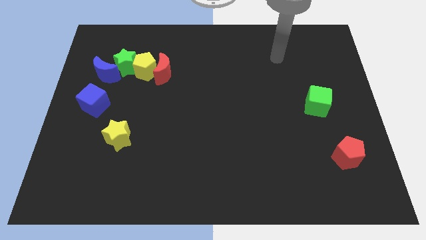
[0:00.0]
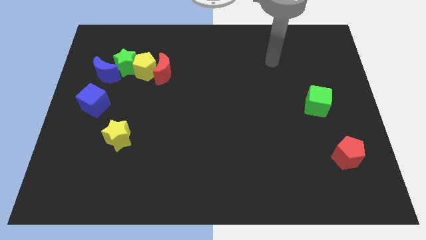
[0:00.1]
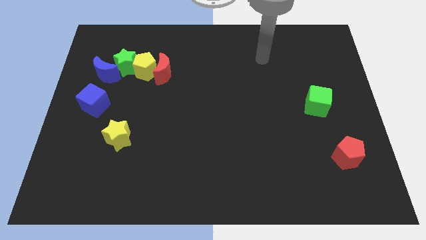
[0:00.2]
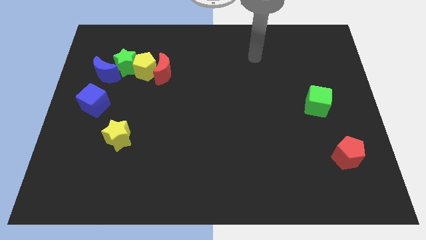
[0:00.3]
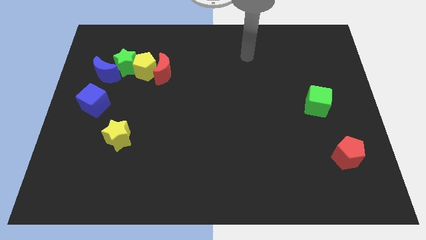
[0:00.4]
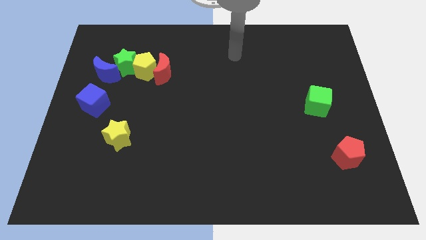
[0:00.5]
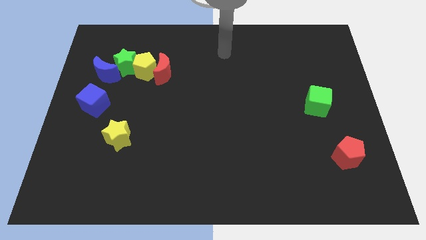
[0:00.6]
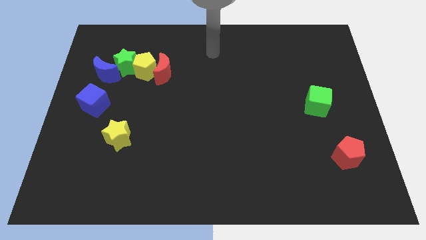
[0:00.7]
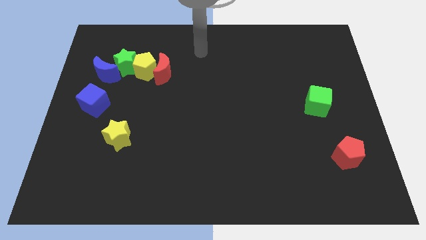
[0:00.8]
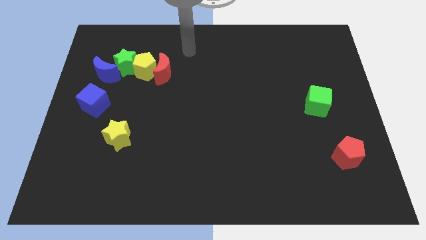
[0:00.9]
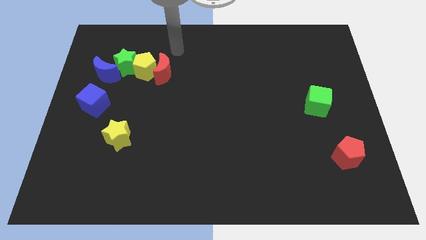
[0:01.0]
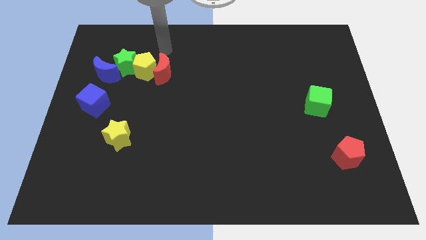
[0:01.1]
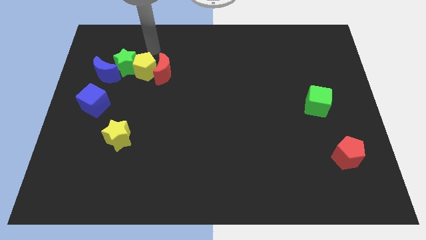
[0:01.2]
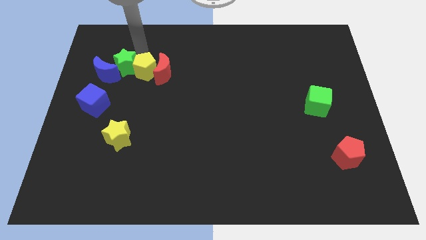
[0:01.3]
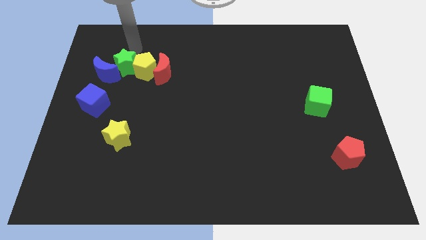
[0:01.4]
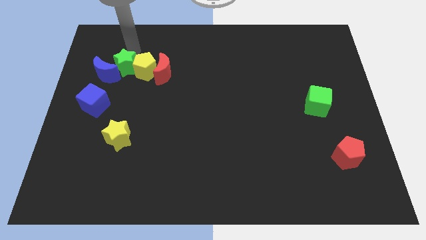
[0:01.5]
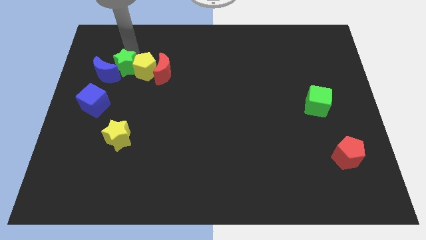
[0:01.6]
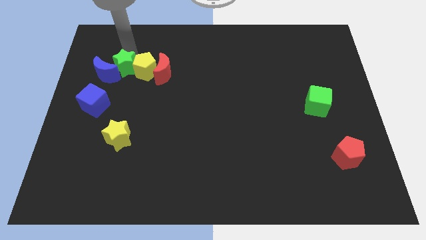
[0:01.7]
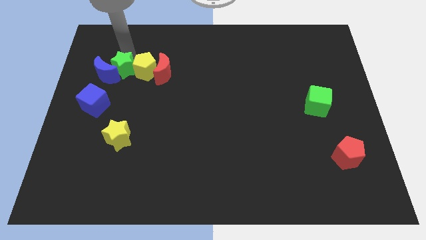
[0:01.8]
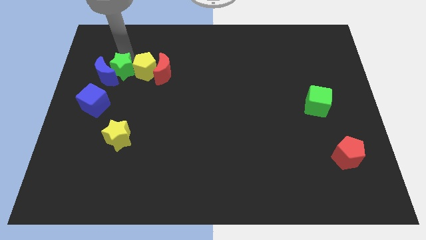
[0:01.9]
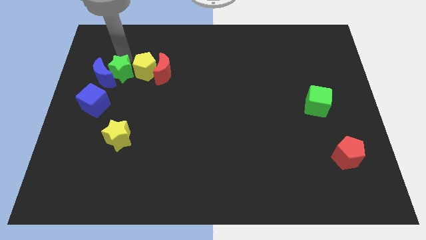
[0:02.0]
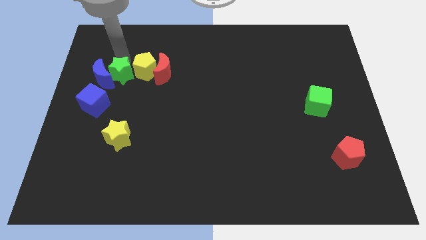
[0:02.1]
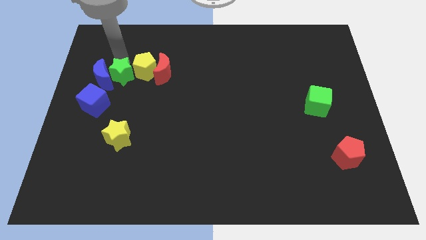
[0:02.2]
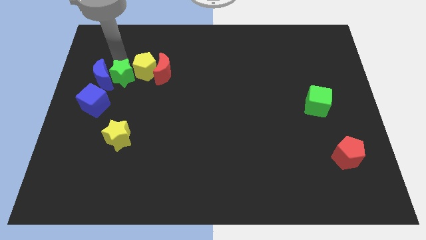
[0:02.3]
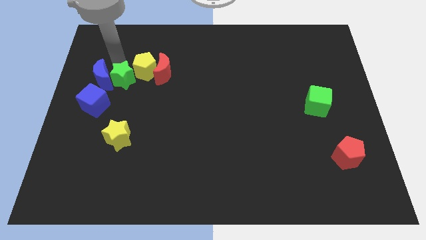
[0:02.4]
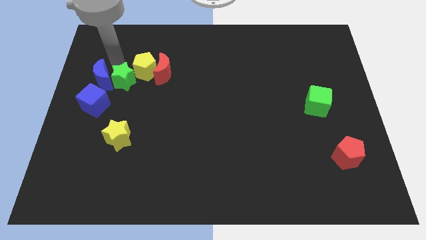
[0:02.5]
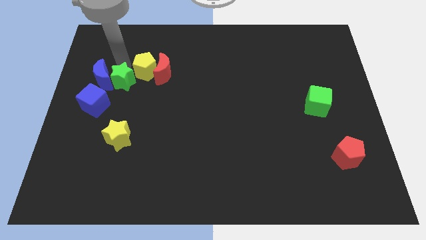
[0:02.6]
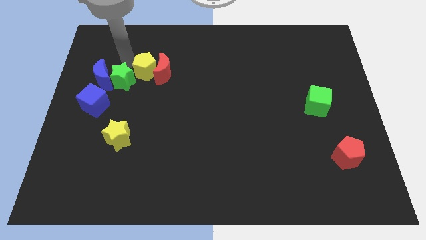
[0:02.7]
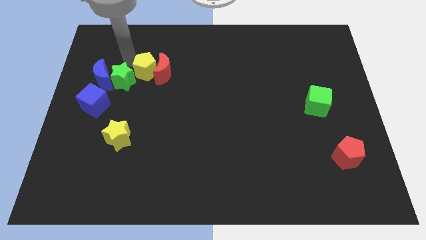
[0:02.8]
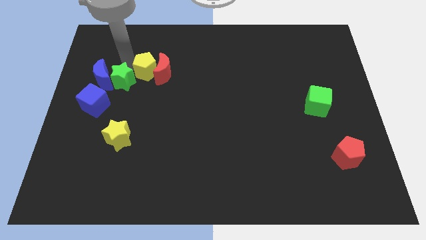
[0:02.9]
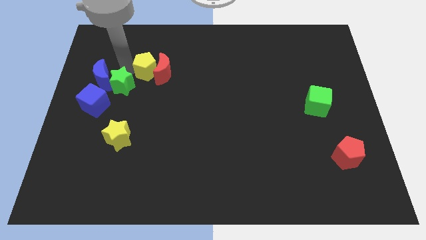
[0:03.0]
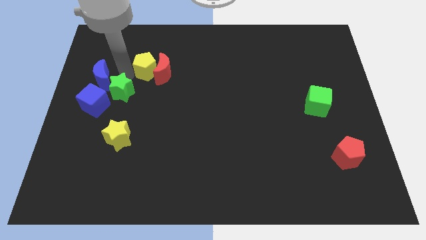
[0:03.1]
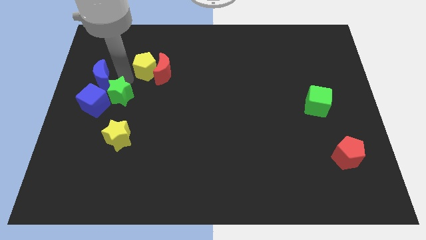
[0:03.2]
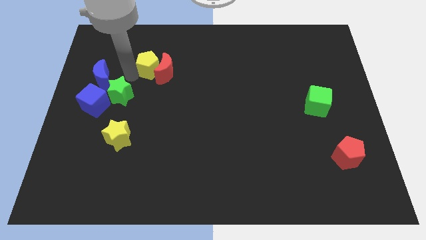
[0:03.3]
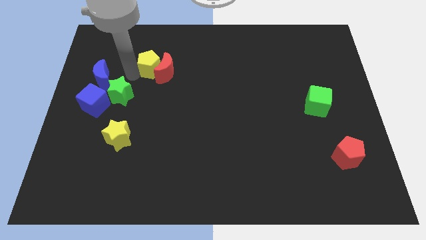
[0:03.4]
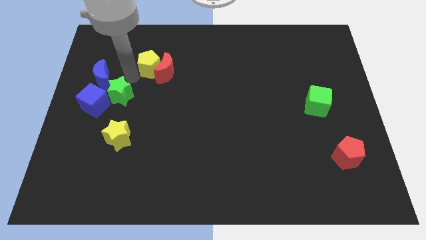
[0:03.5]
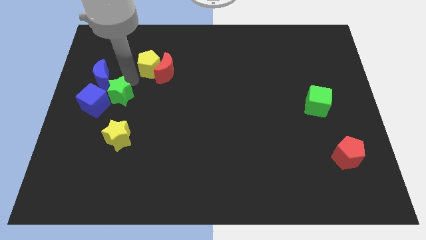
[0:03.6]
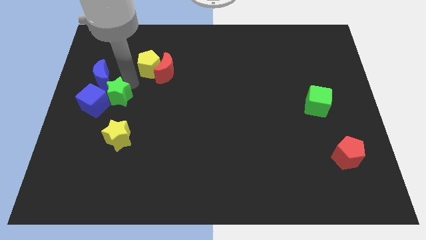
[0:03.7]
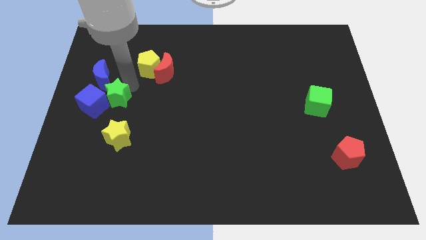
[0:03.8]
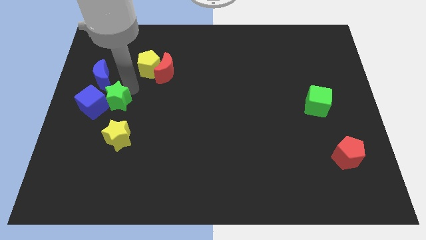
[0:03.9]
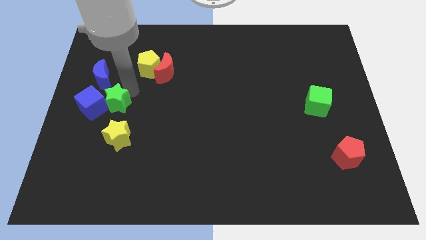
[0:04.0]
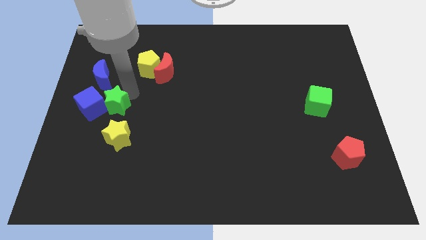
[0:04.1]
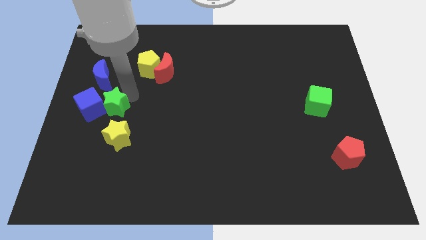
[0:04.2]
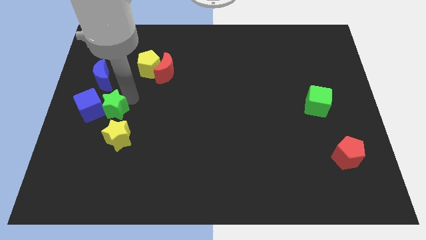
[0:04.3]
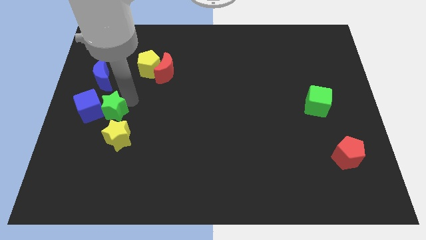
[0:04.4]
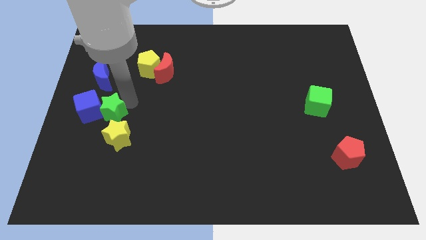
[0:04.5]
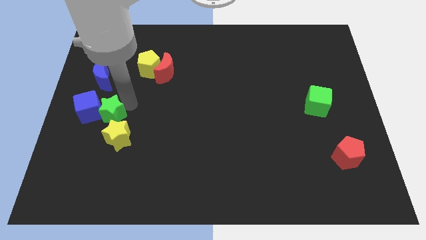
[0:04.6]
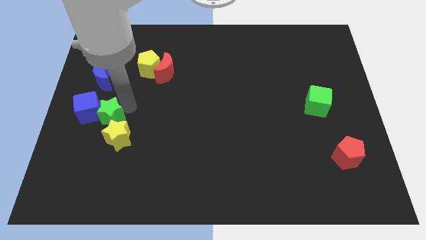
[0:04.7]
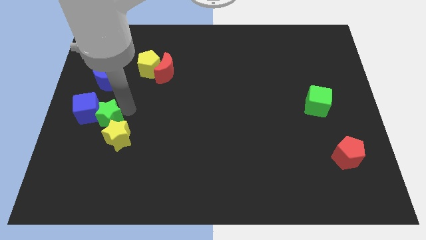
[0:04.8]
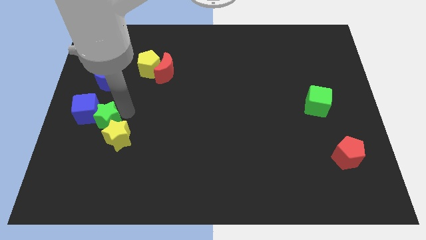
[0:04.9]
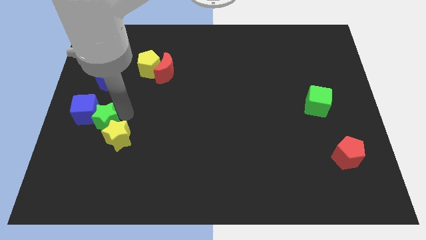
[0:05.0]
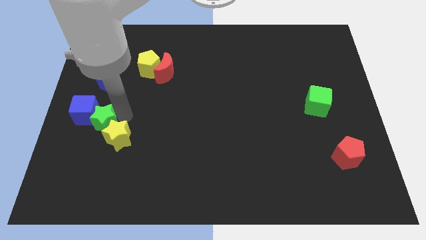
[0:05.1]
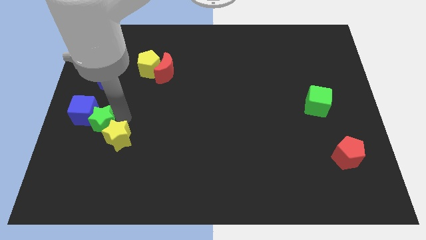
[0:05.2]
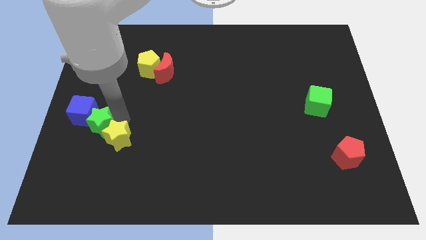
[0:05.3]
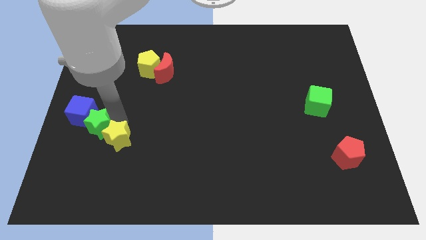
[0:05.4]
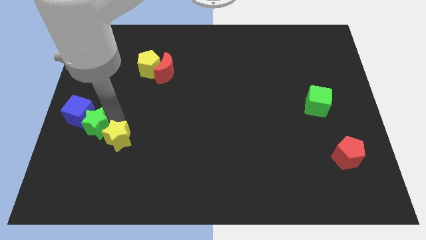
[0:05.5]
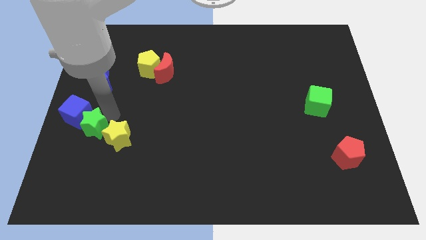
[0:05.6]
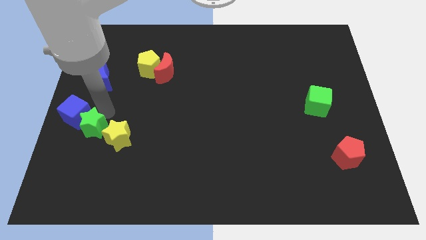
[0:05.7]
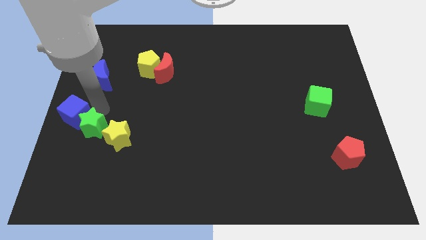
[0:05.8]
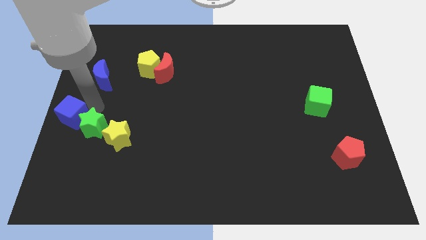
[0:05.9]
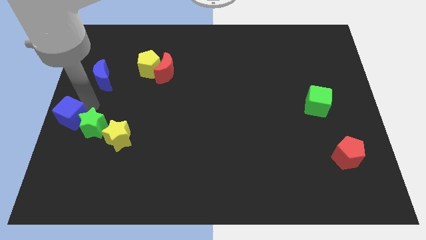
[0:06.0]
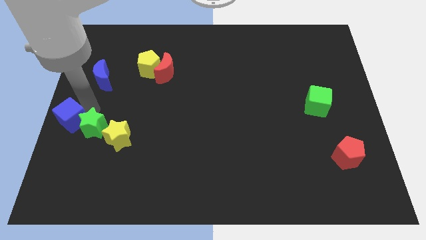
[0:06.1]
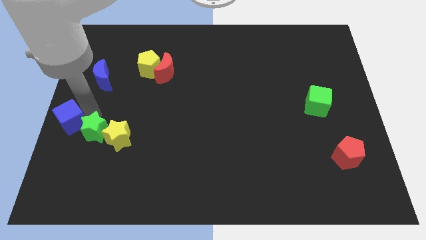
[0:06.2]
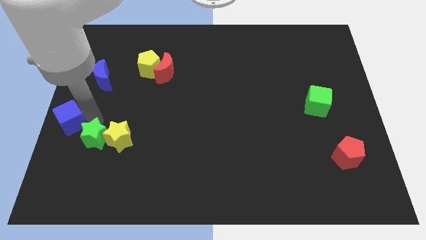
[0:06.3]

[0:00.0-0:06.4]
slide the green star down

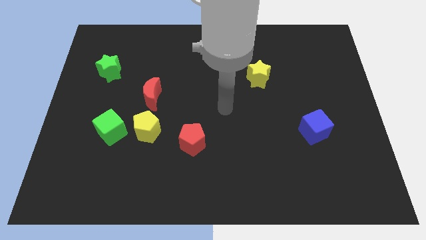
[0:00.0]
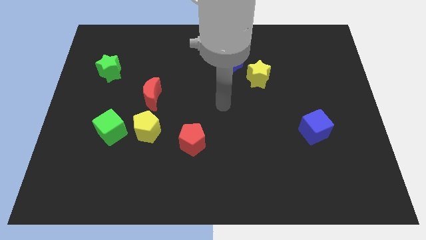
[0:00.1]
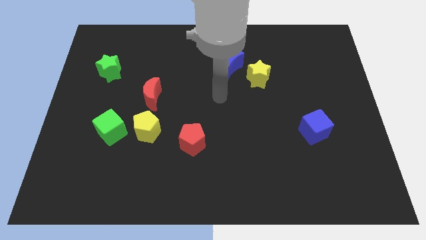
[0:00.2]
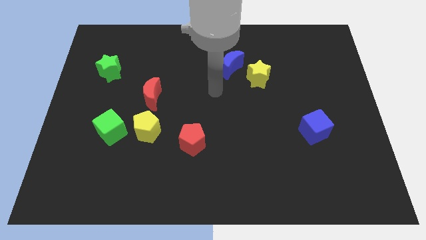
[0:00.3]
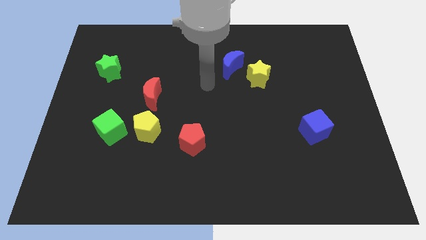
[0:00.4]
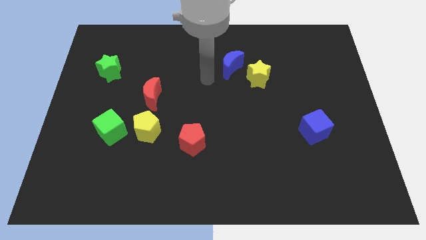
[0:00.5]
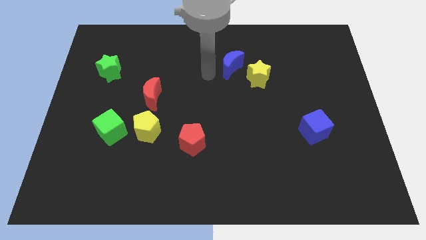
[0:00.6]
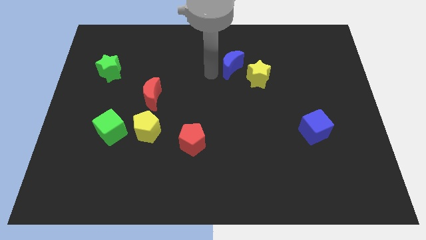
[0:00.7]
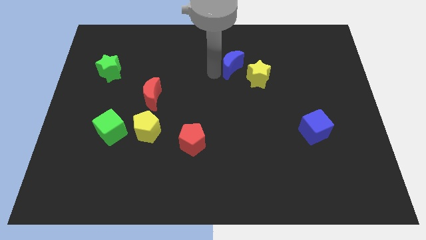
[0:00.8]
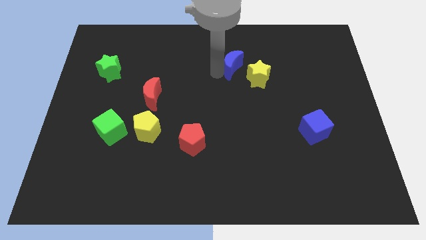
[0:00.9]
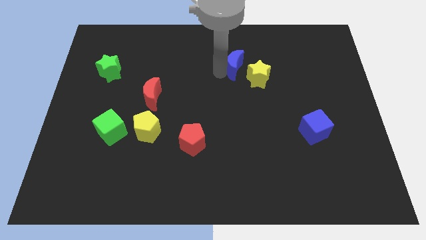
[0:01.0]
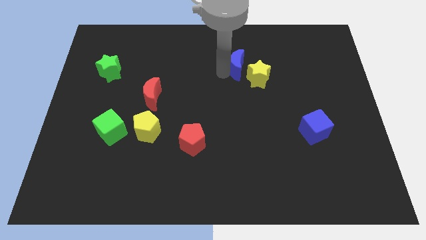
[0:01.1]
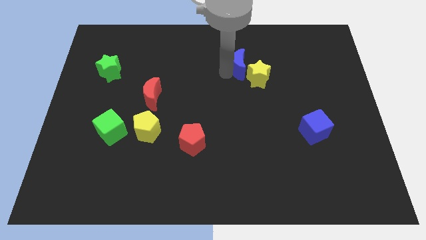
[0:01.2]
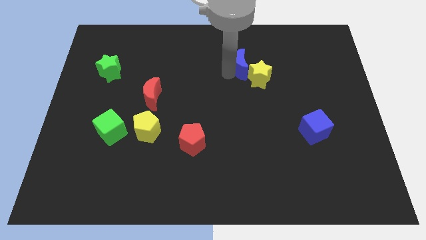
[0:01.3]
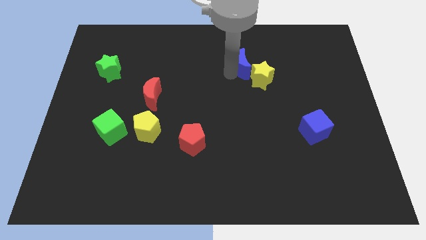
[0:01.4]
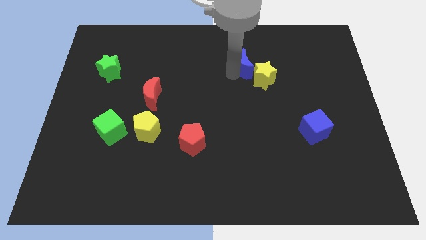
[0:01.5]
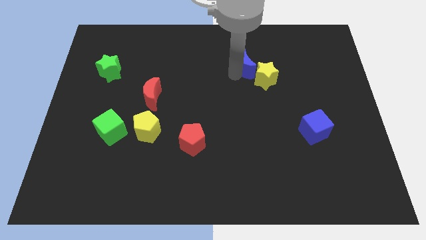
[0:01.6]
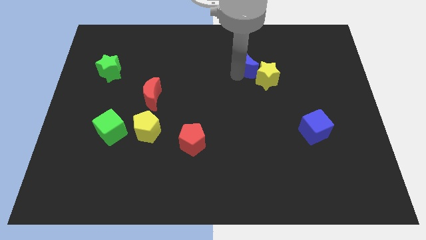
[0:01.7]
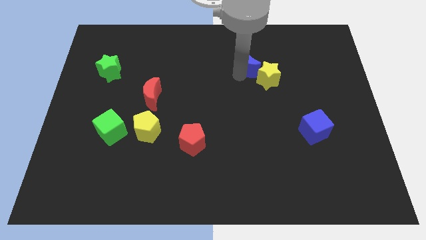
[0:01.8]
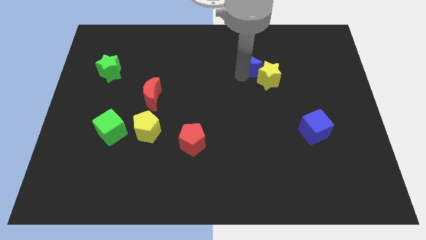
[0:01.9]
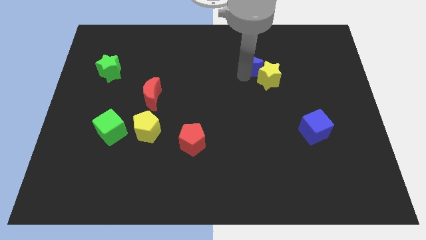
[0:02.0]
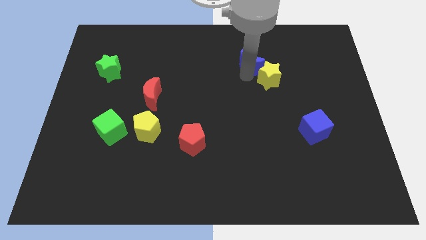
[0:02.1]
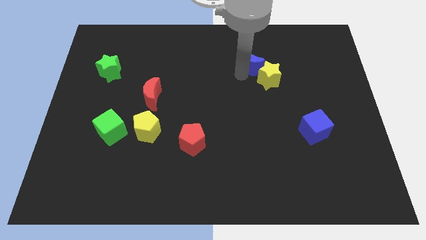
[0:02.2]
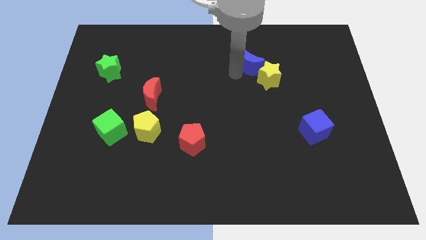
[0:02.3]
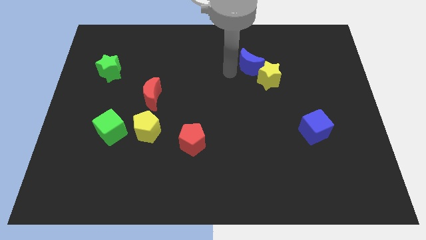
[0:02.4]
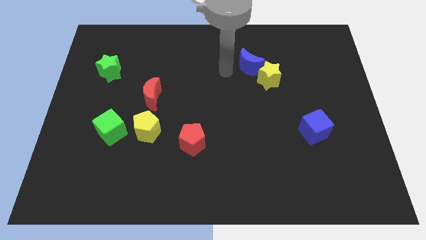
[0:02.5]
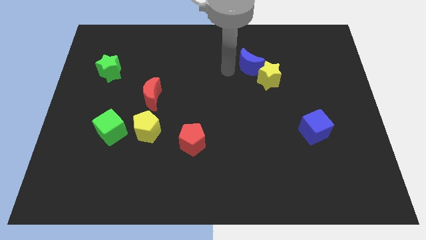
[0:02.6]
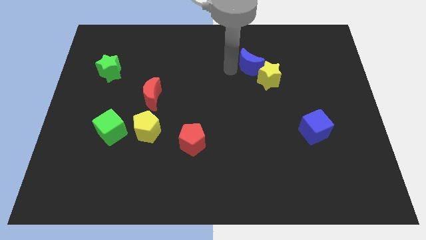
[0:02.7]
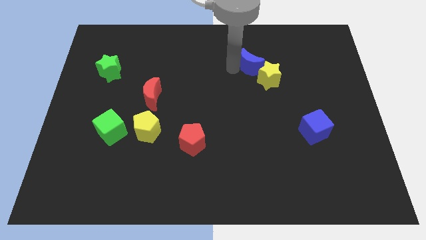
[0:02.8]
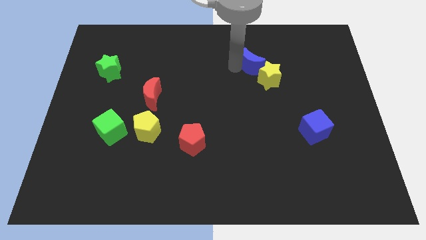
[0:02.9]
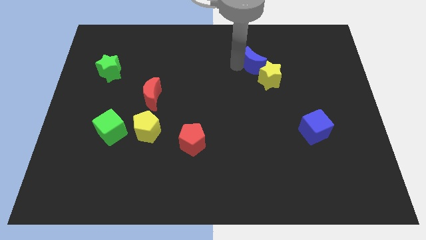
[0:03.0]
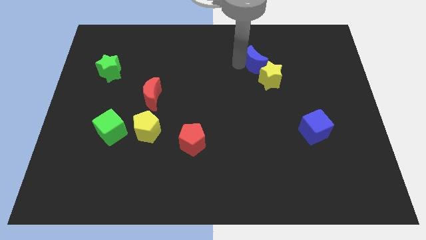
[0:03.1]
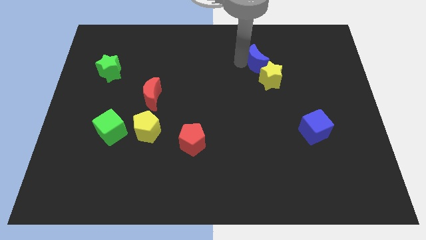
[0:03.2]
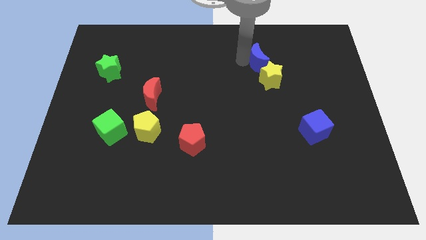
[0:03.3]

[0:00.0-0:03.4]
move the blue moon a little bit to the right
